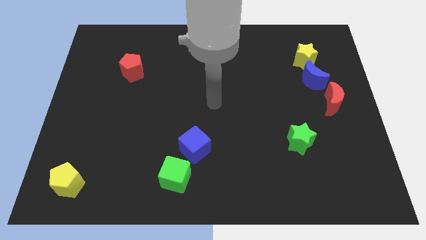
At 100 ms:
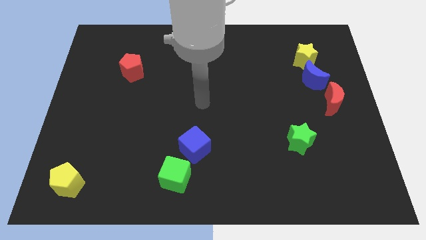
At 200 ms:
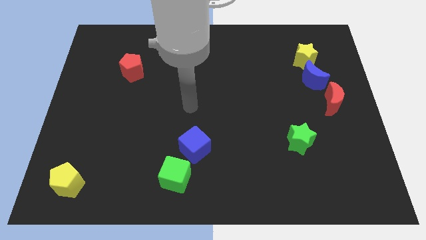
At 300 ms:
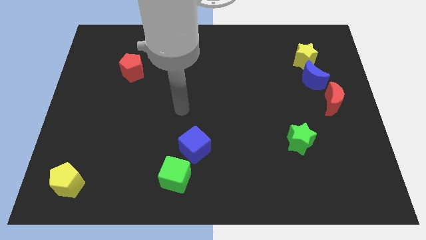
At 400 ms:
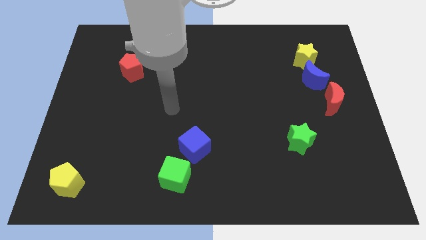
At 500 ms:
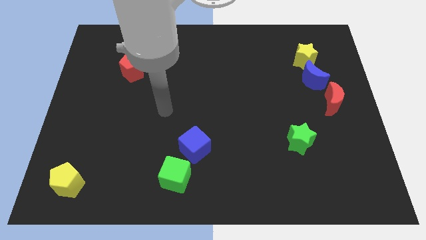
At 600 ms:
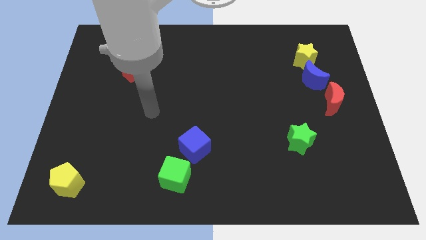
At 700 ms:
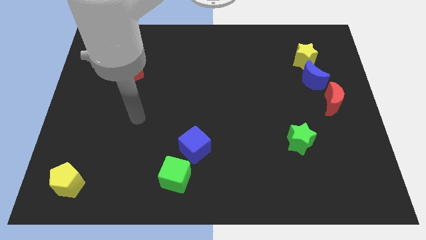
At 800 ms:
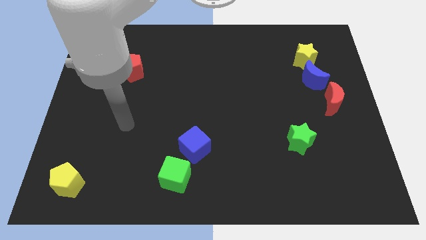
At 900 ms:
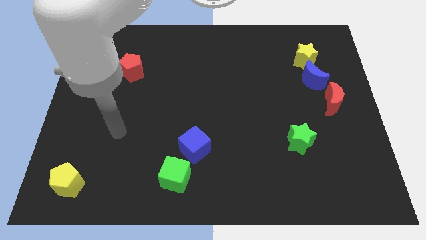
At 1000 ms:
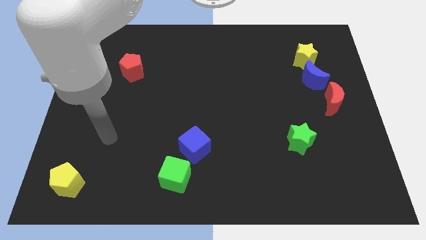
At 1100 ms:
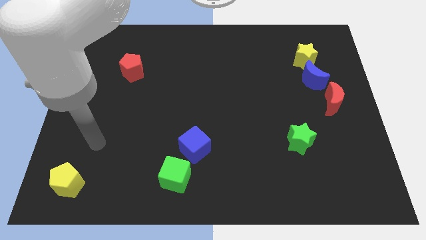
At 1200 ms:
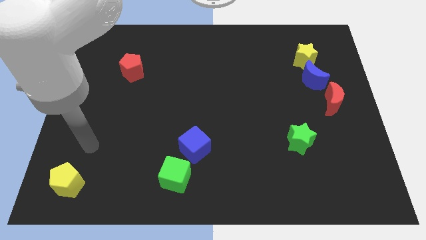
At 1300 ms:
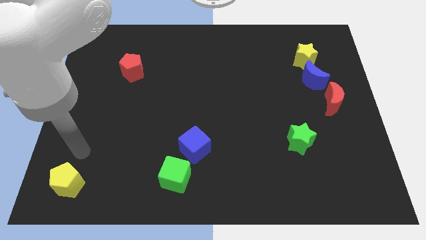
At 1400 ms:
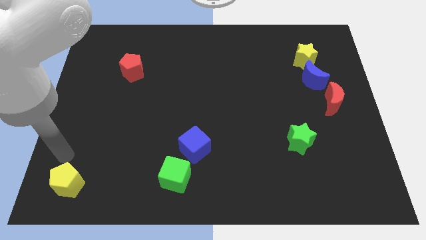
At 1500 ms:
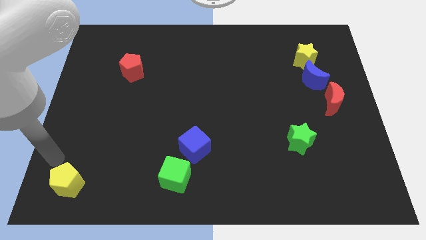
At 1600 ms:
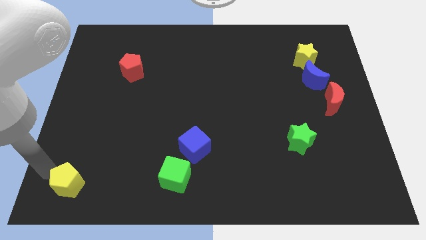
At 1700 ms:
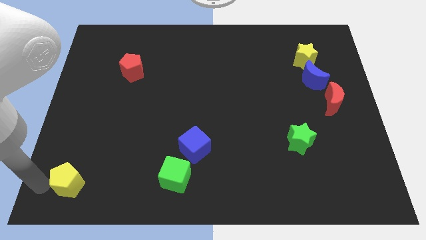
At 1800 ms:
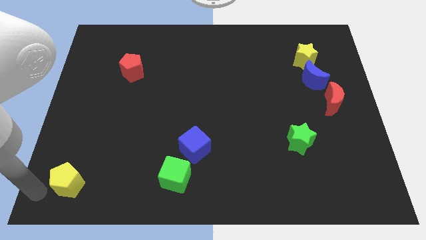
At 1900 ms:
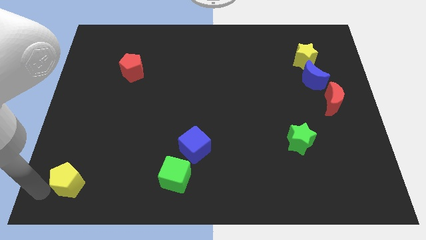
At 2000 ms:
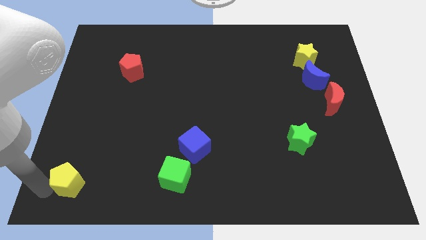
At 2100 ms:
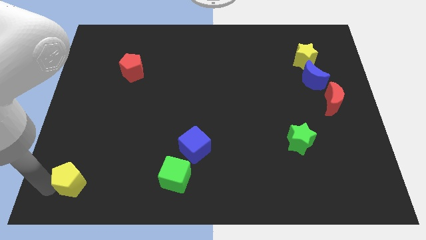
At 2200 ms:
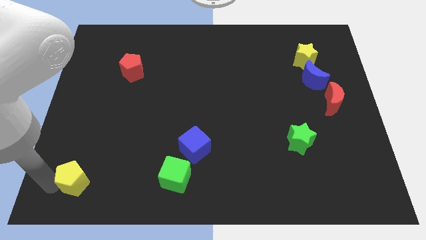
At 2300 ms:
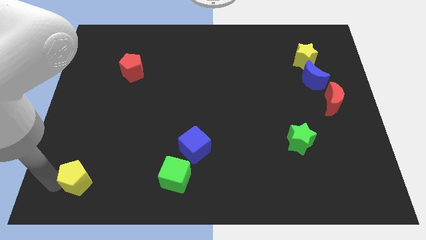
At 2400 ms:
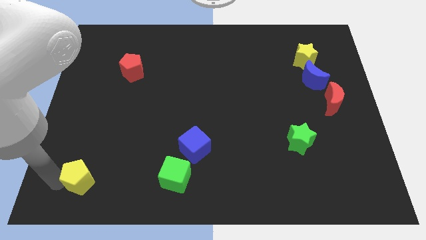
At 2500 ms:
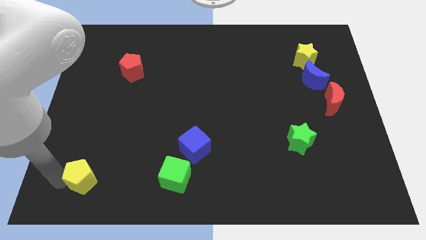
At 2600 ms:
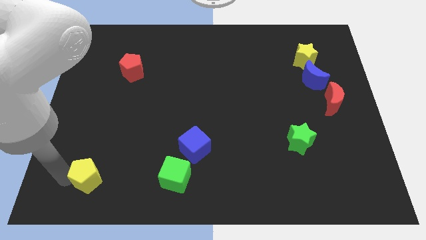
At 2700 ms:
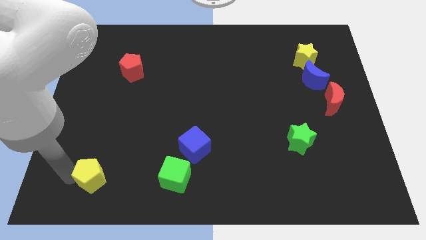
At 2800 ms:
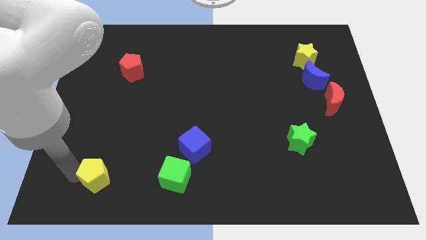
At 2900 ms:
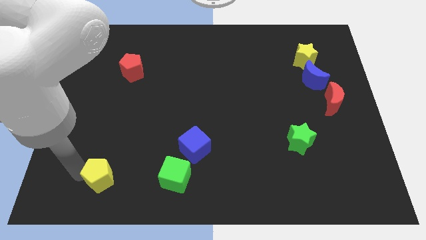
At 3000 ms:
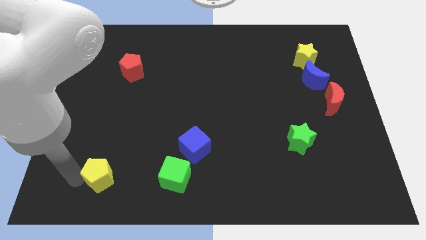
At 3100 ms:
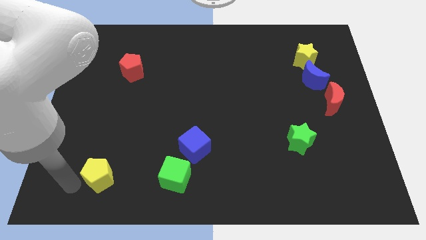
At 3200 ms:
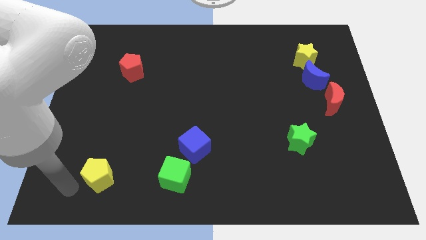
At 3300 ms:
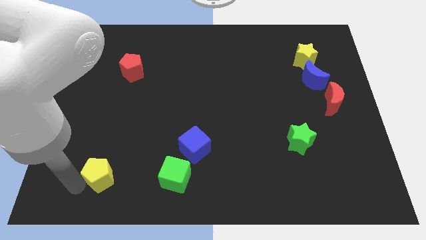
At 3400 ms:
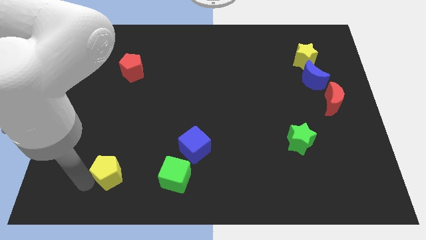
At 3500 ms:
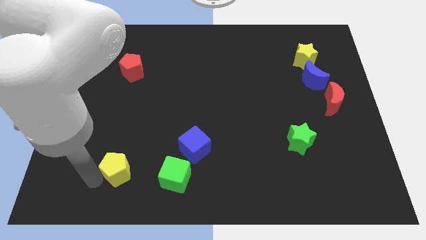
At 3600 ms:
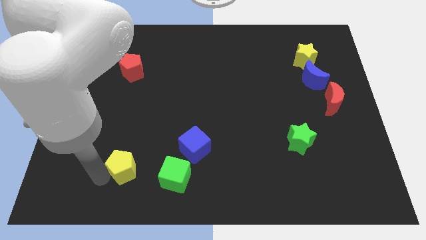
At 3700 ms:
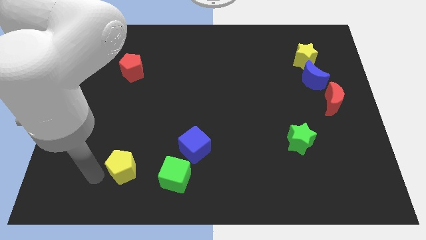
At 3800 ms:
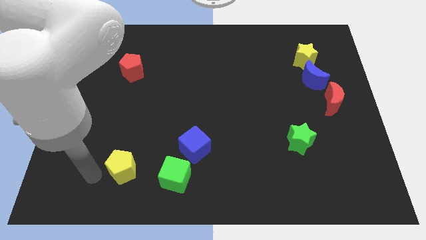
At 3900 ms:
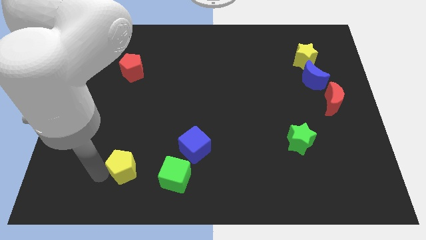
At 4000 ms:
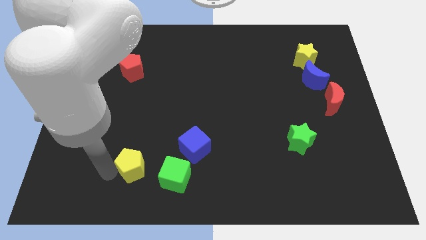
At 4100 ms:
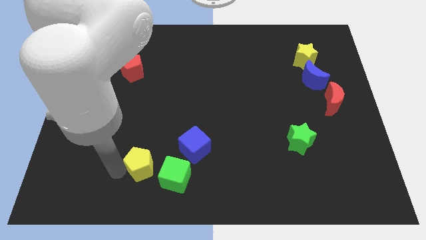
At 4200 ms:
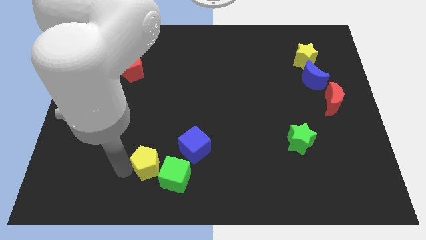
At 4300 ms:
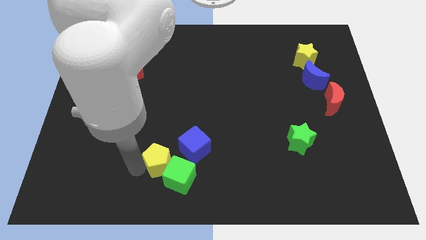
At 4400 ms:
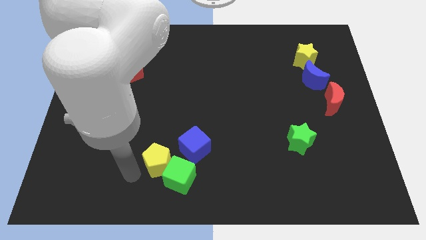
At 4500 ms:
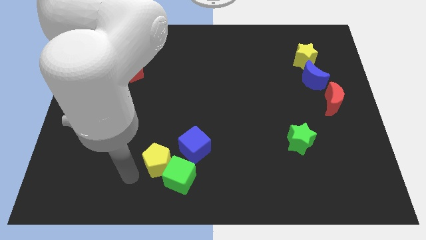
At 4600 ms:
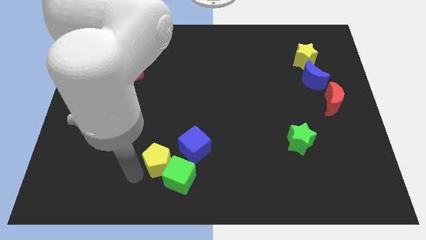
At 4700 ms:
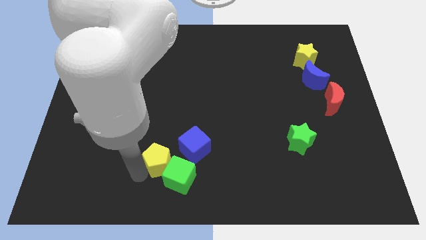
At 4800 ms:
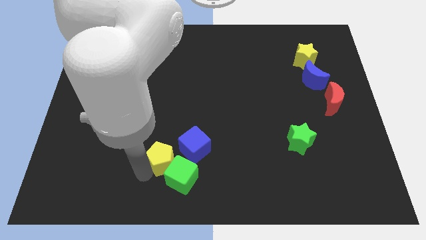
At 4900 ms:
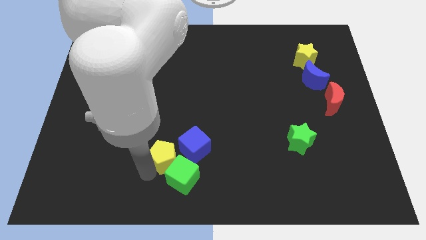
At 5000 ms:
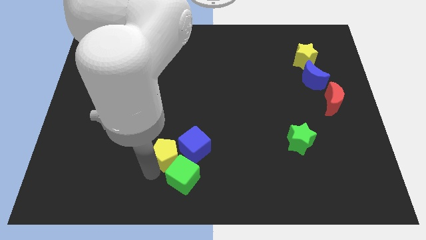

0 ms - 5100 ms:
push the yellow pentagon close to the blue cube

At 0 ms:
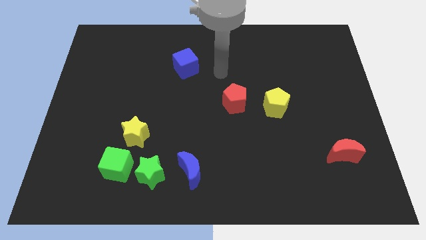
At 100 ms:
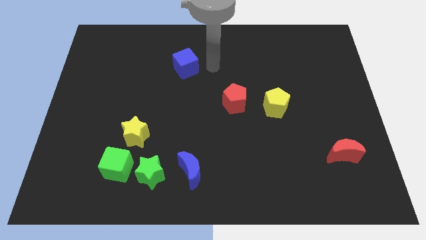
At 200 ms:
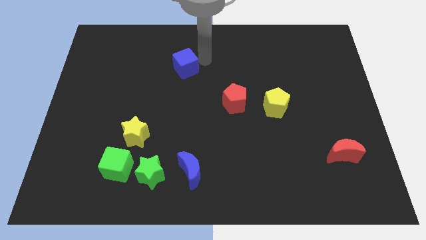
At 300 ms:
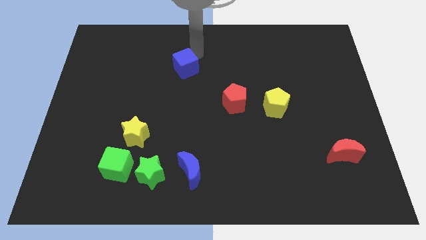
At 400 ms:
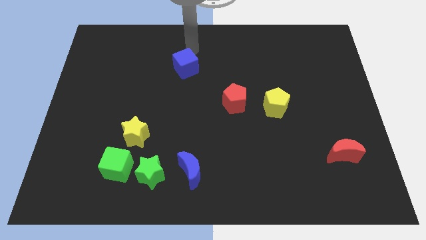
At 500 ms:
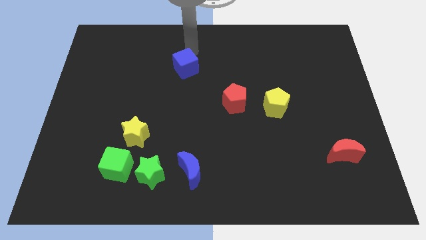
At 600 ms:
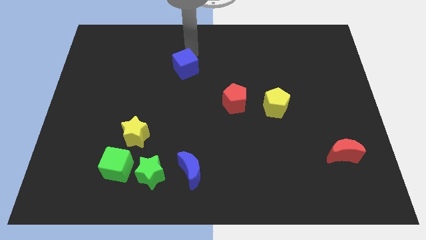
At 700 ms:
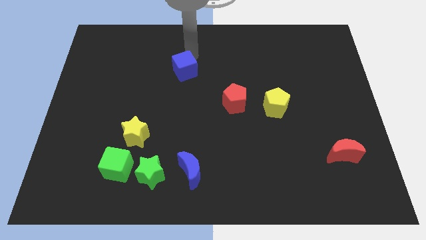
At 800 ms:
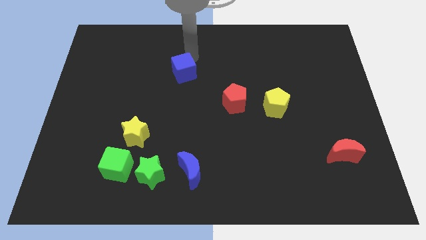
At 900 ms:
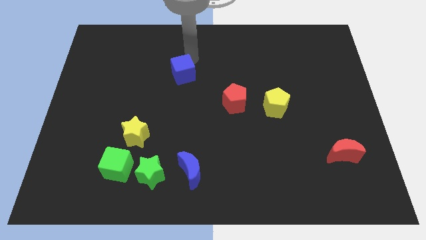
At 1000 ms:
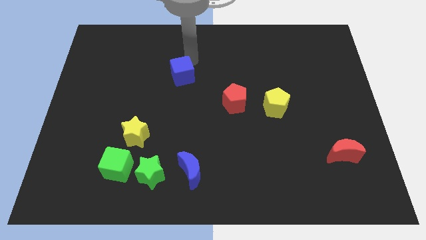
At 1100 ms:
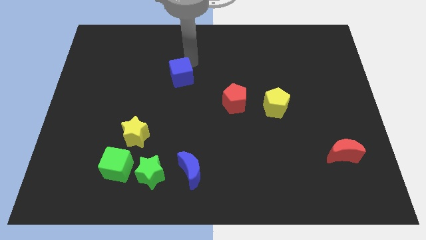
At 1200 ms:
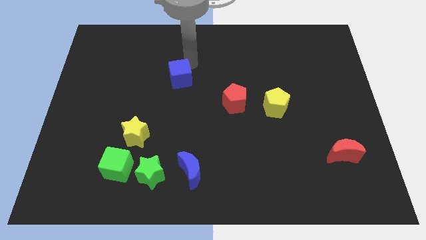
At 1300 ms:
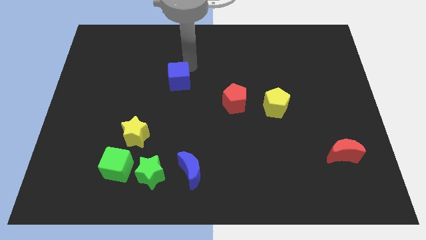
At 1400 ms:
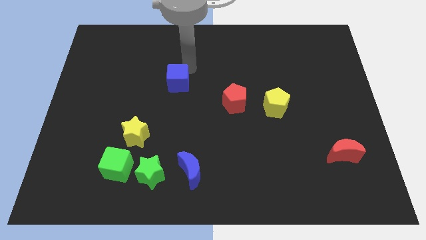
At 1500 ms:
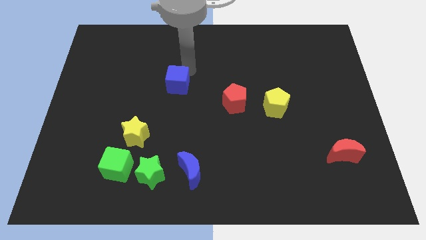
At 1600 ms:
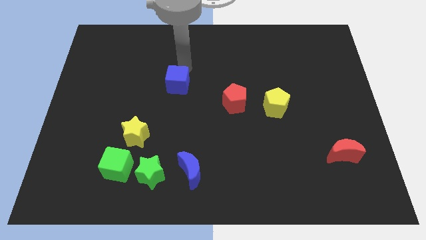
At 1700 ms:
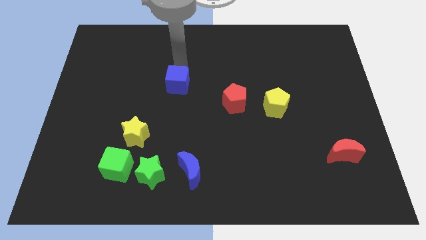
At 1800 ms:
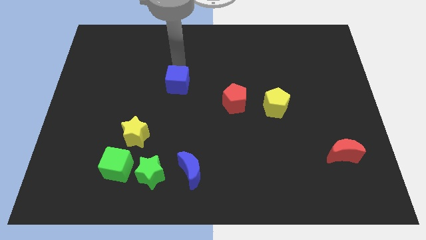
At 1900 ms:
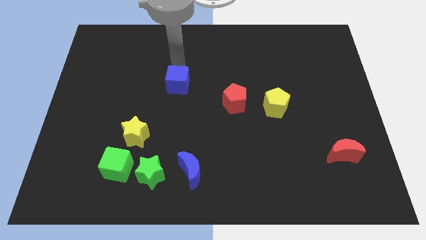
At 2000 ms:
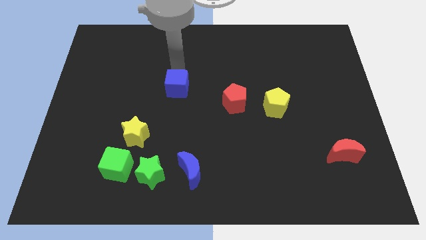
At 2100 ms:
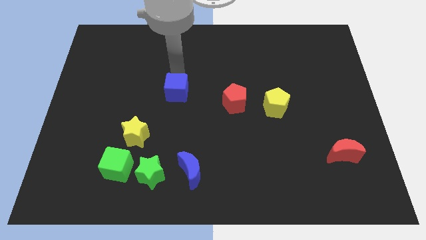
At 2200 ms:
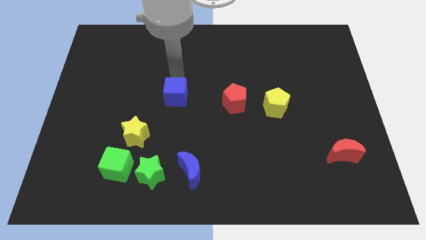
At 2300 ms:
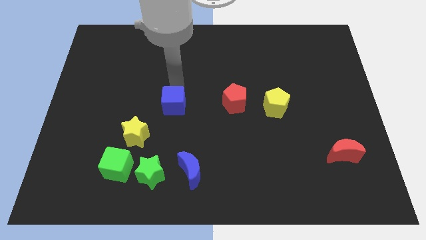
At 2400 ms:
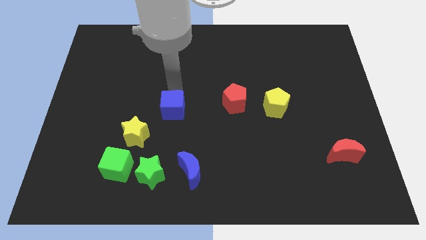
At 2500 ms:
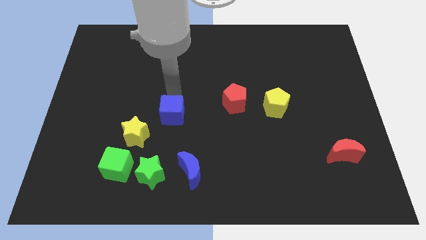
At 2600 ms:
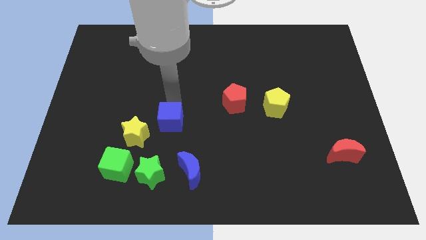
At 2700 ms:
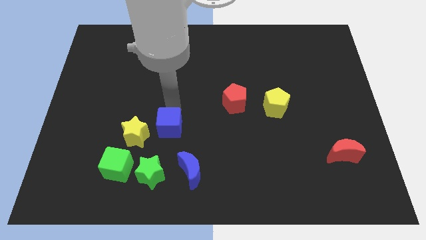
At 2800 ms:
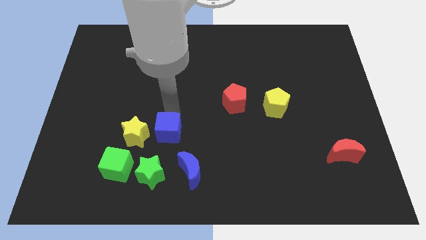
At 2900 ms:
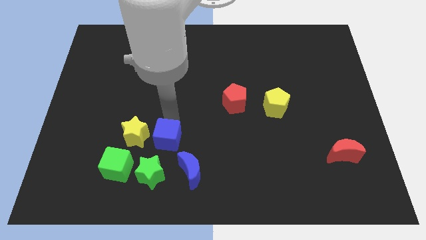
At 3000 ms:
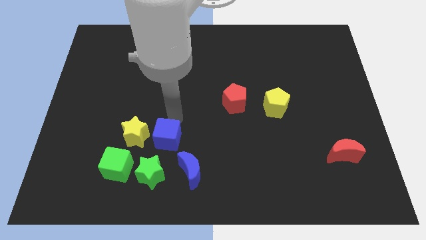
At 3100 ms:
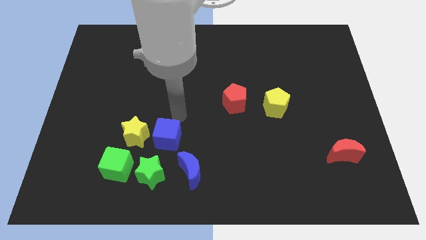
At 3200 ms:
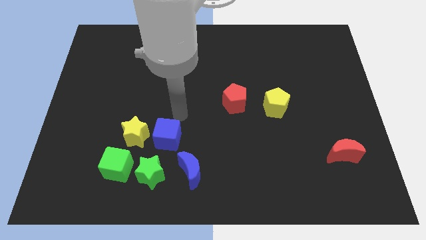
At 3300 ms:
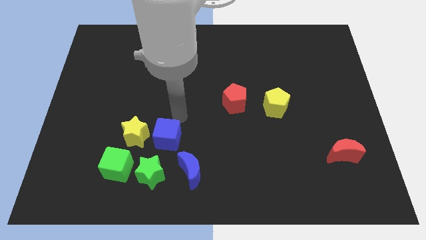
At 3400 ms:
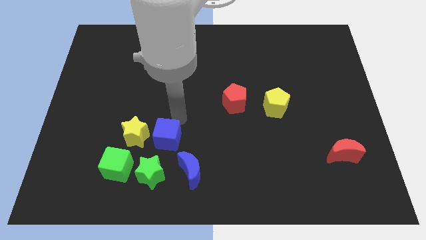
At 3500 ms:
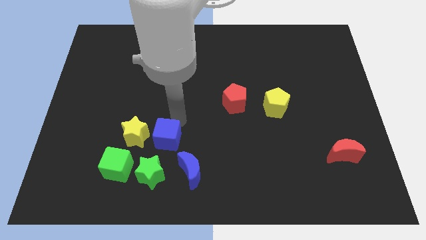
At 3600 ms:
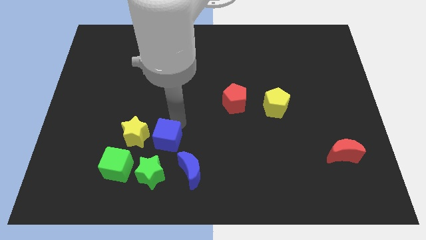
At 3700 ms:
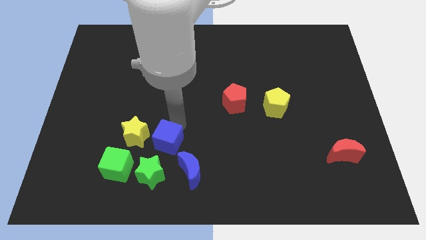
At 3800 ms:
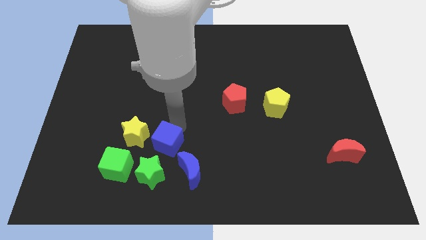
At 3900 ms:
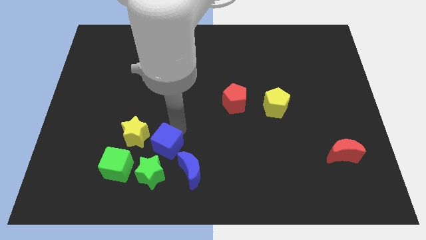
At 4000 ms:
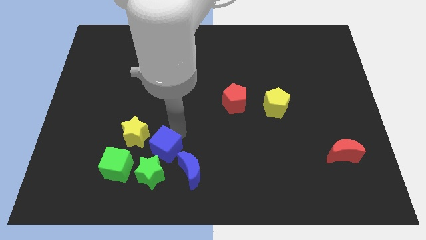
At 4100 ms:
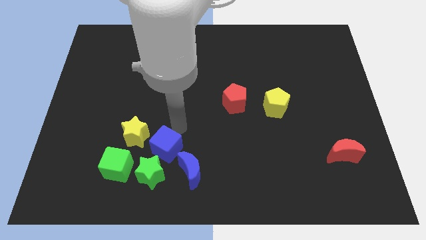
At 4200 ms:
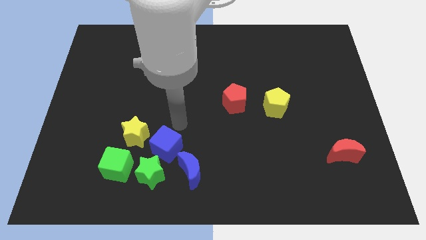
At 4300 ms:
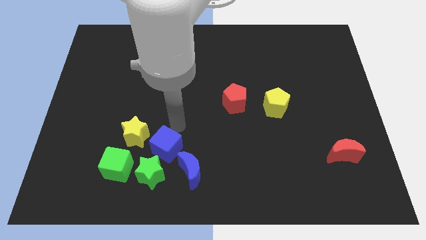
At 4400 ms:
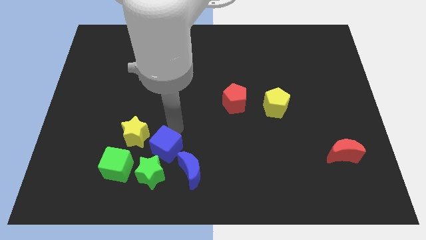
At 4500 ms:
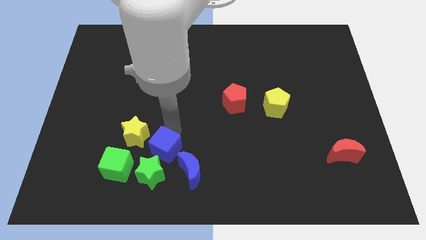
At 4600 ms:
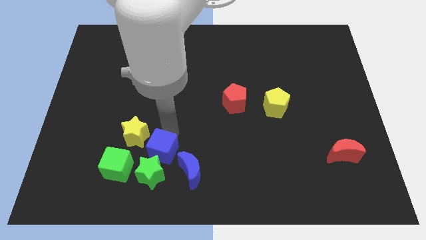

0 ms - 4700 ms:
move the blue cube to the green star
